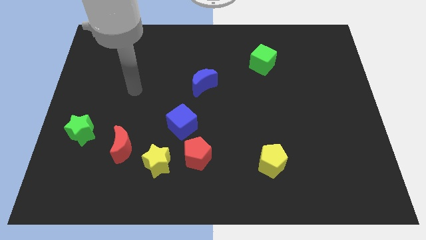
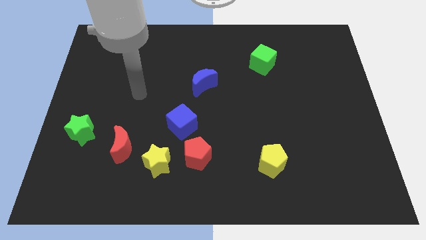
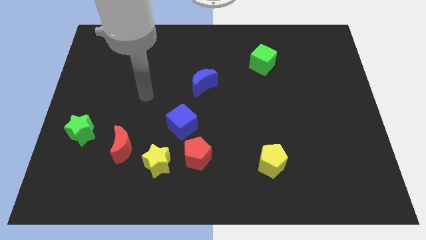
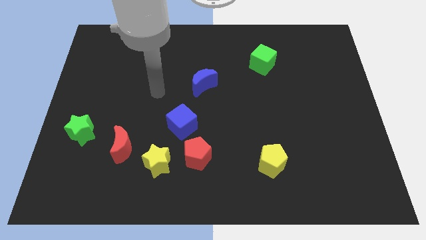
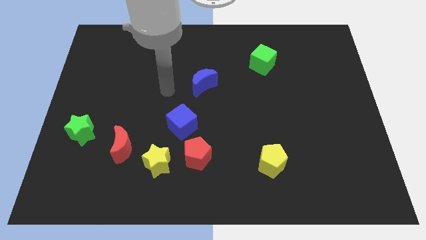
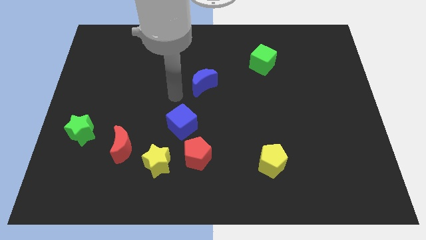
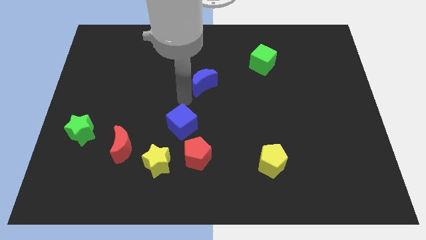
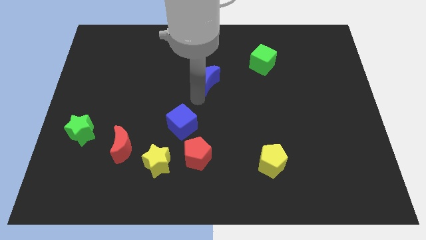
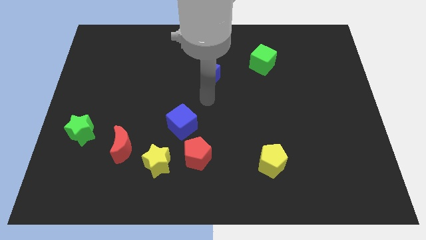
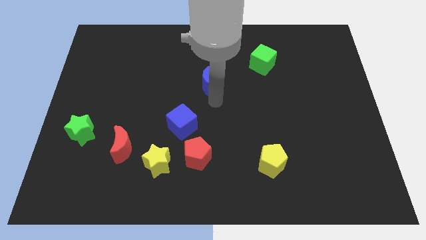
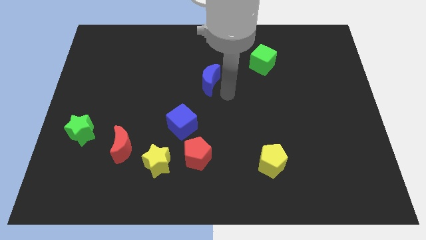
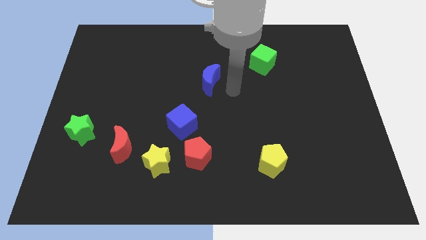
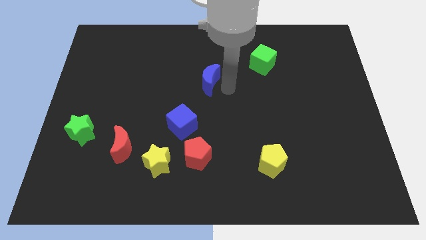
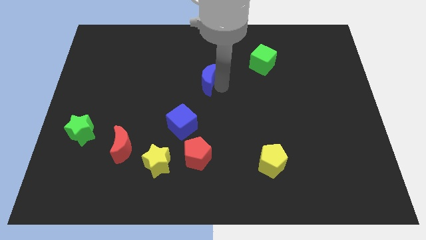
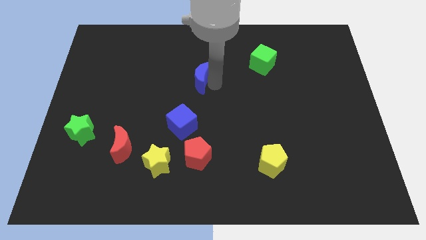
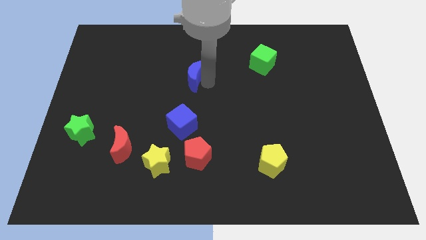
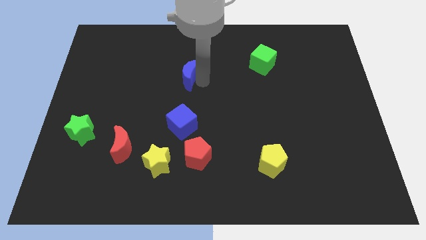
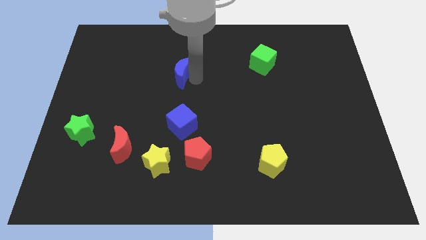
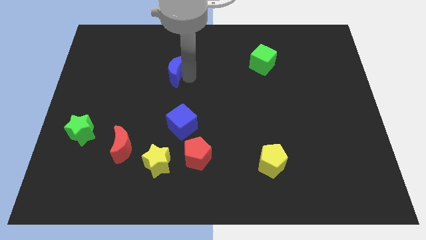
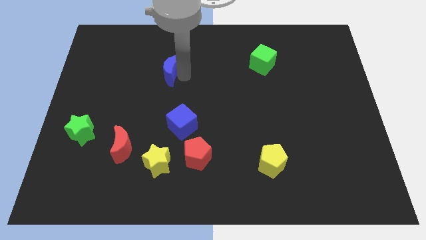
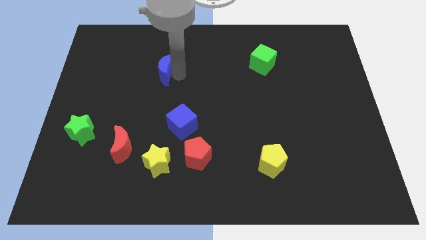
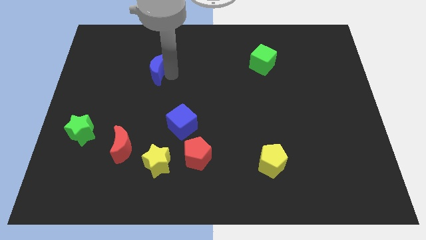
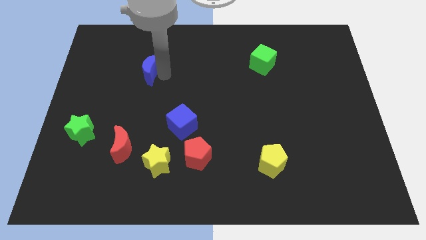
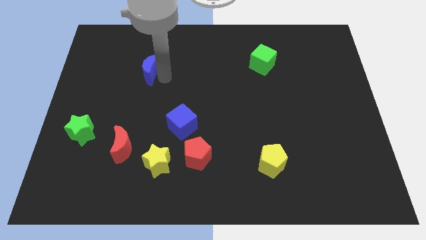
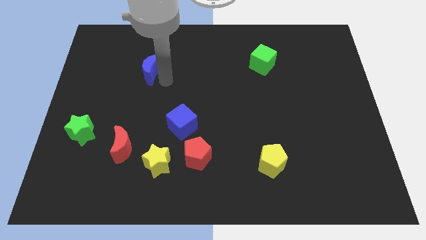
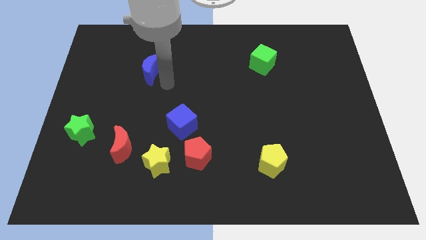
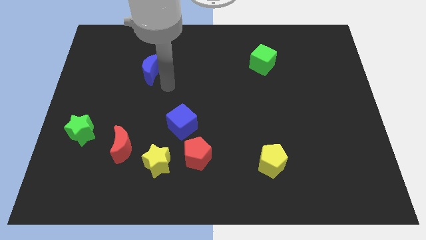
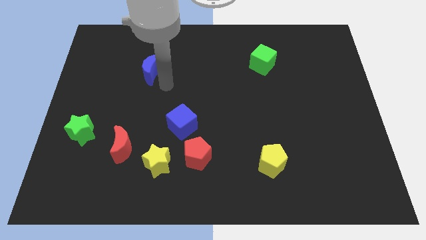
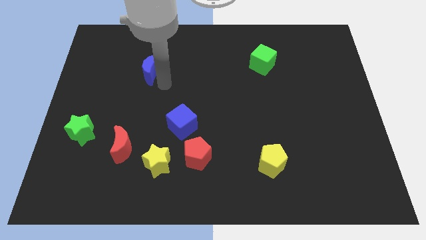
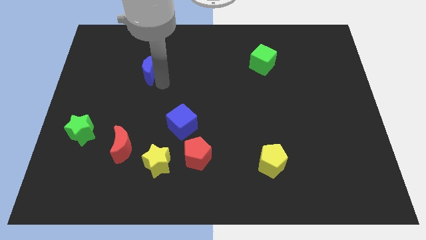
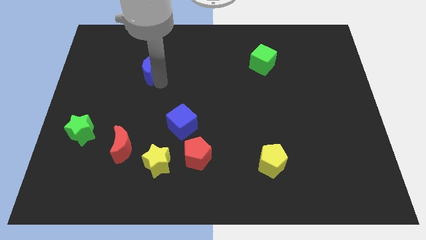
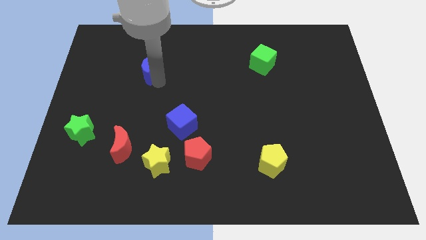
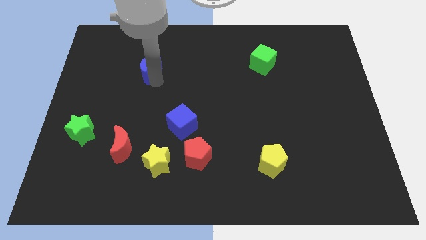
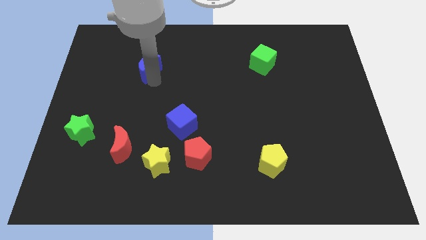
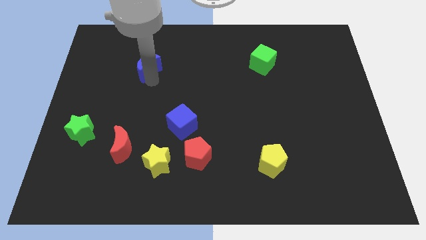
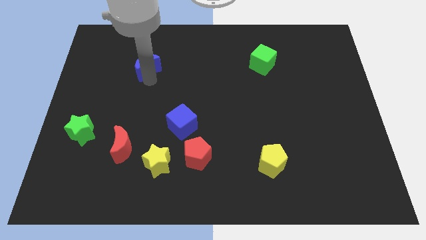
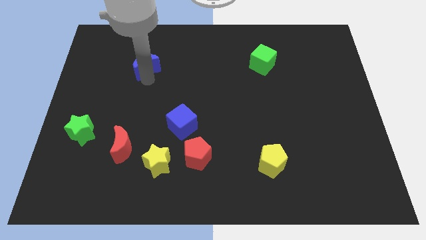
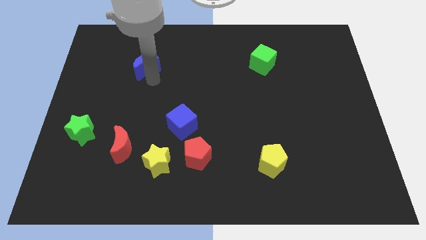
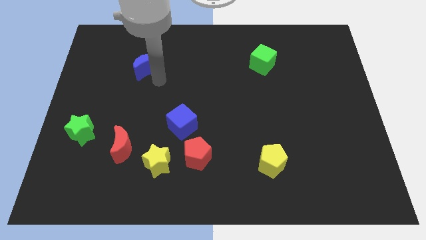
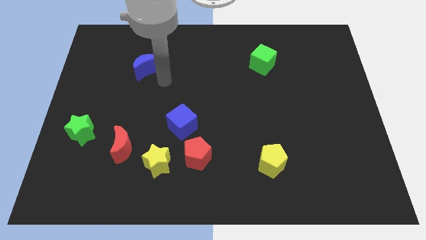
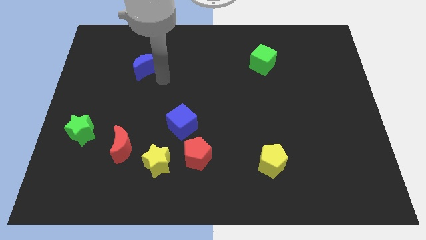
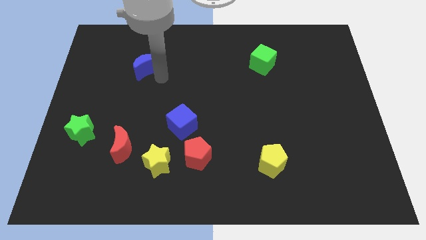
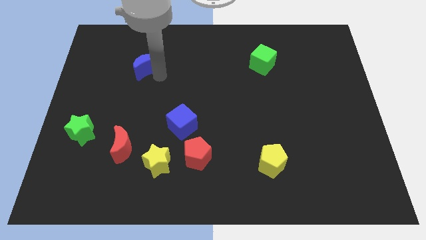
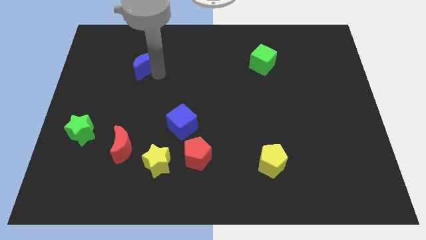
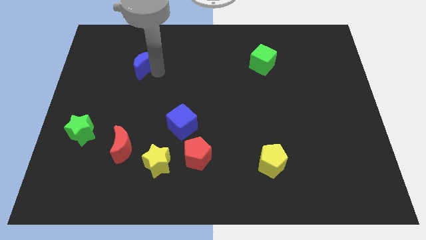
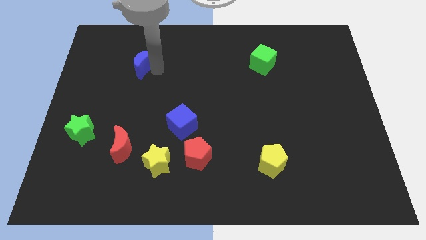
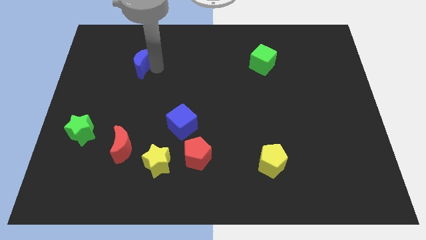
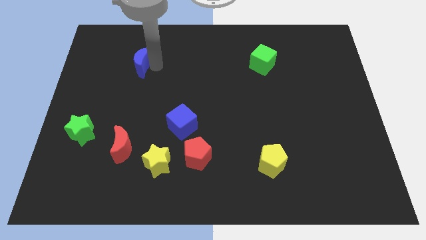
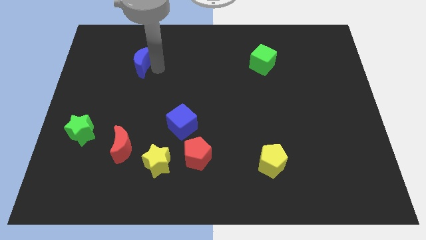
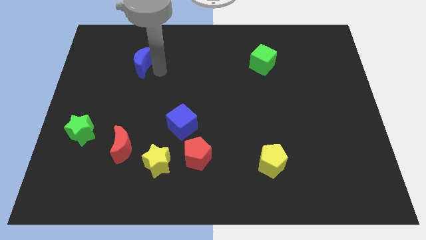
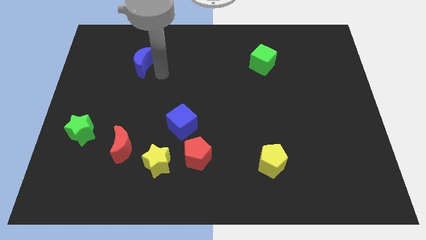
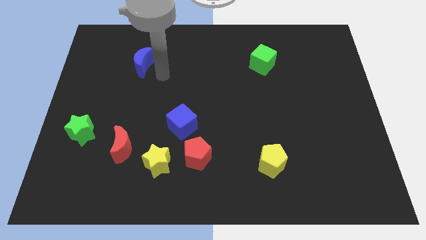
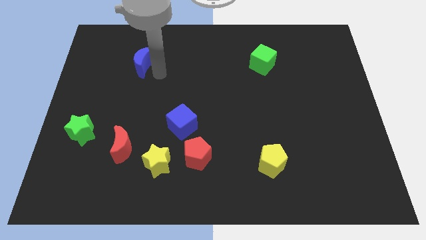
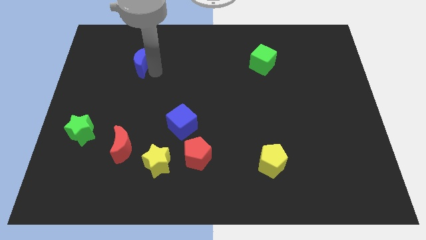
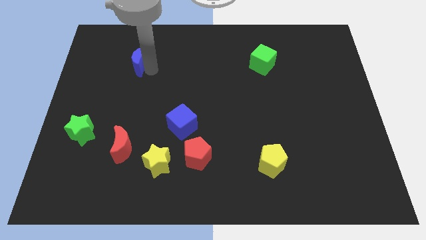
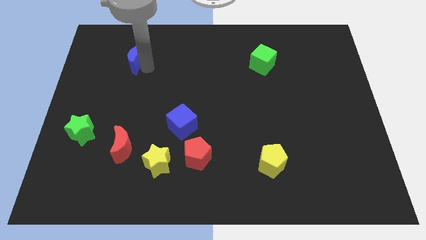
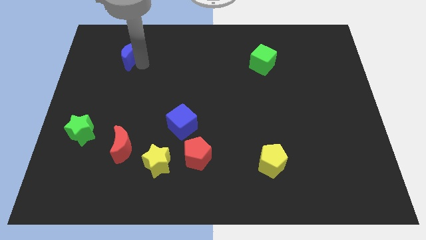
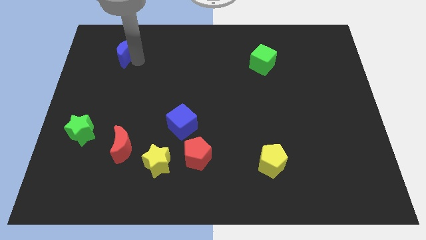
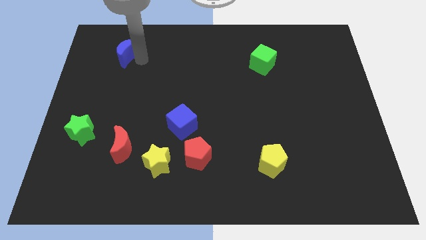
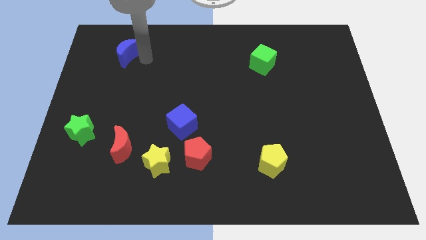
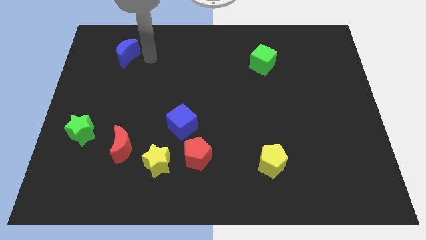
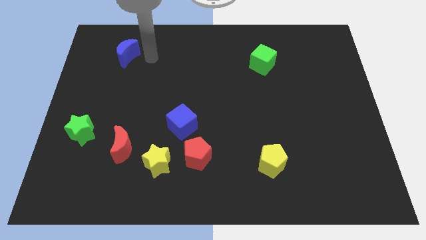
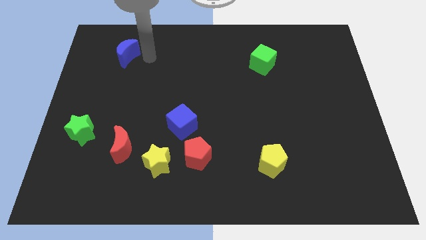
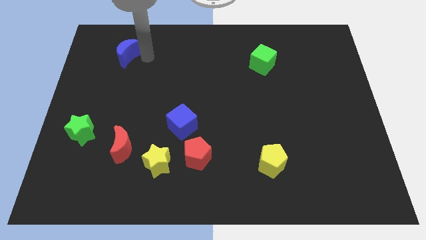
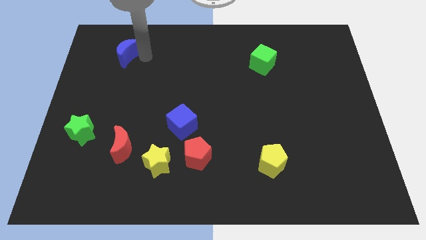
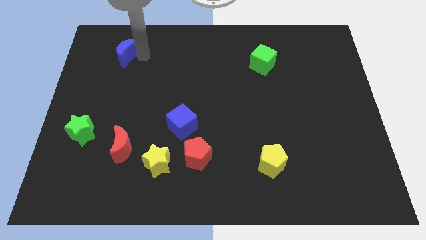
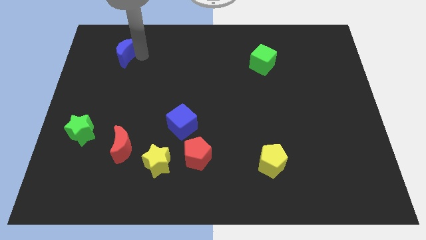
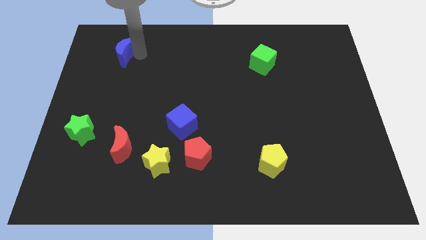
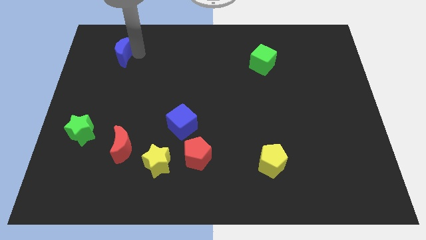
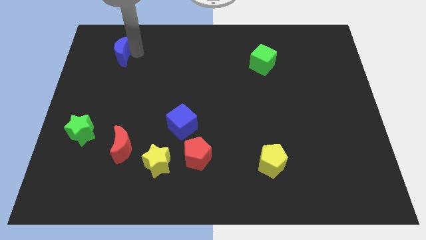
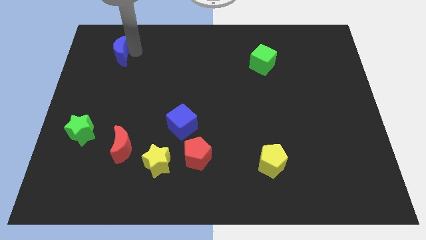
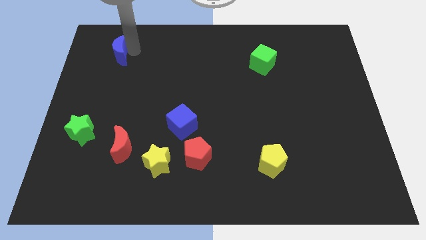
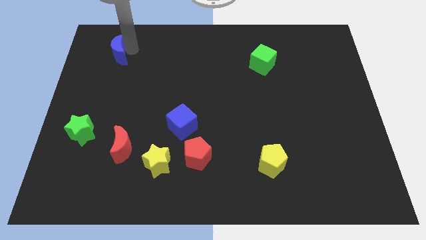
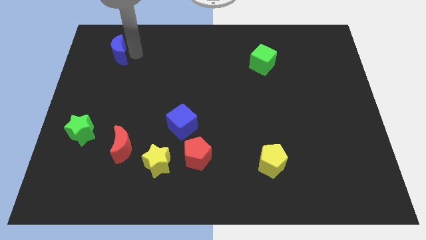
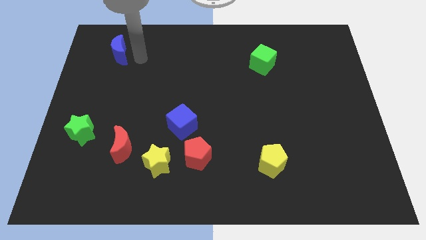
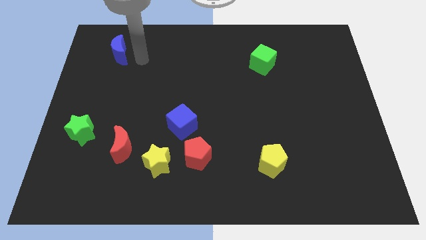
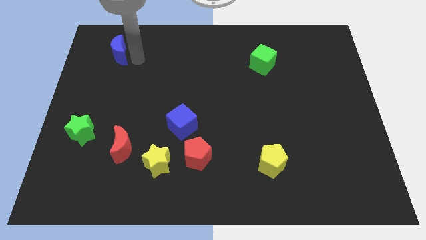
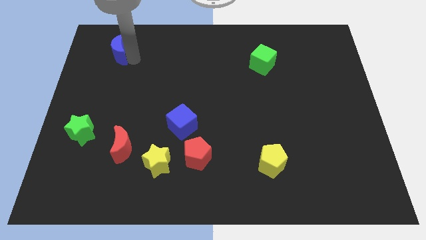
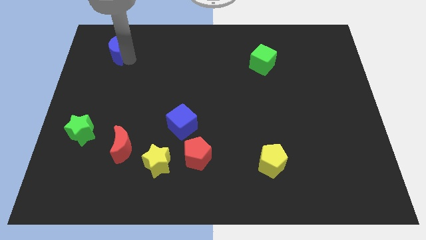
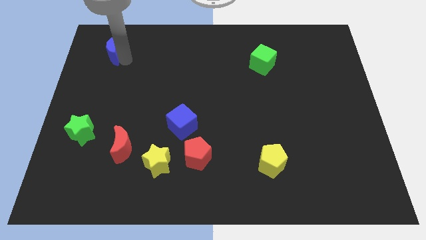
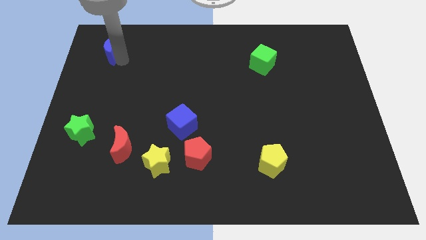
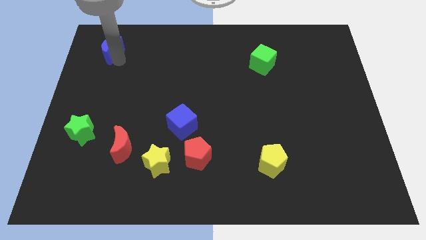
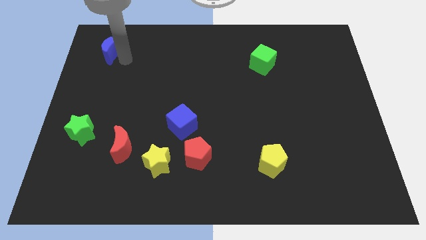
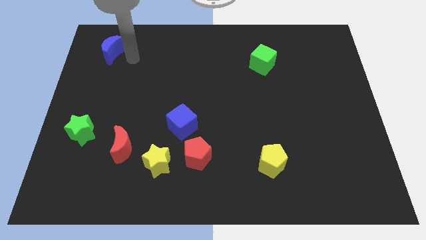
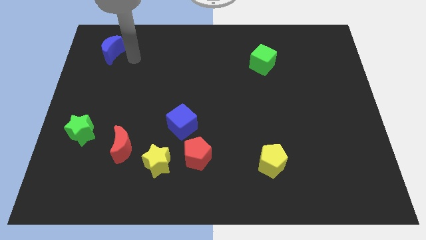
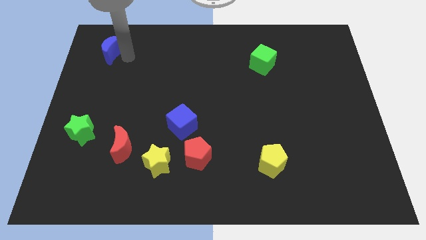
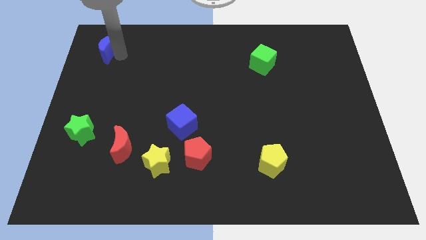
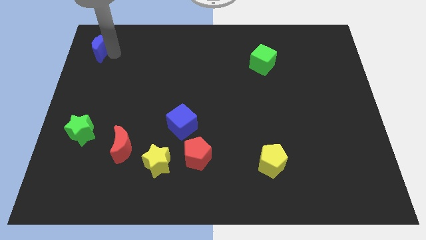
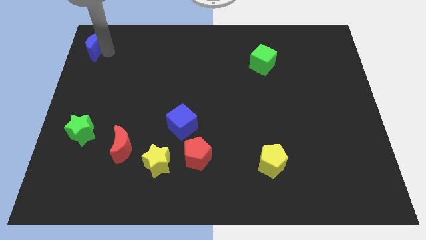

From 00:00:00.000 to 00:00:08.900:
put the blue moon to the top left of the board
